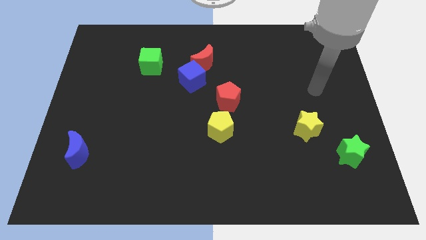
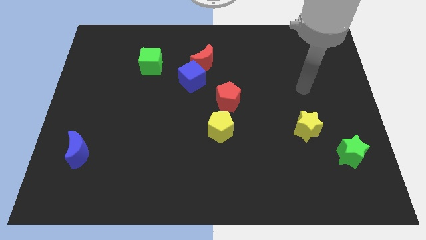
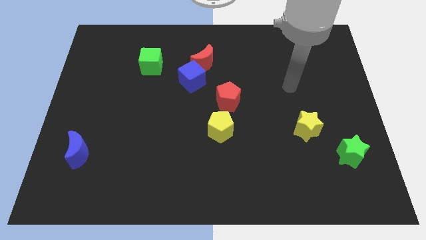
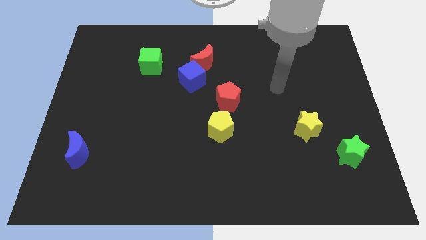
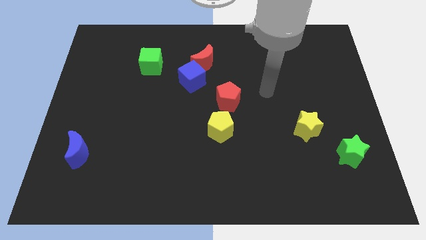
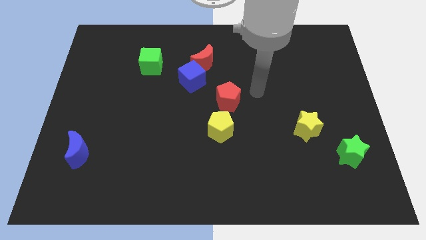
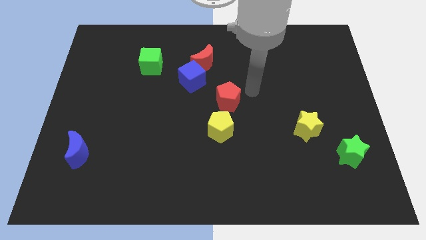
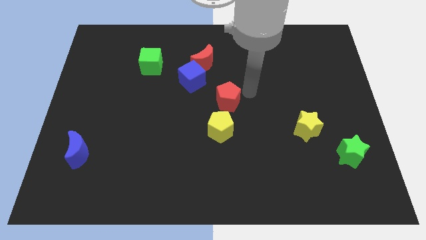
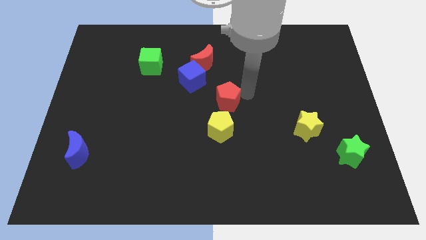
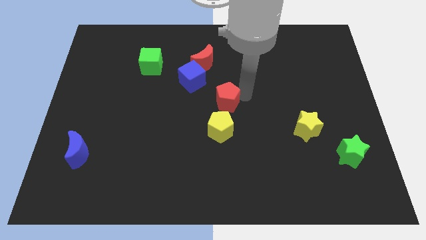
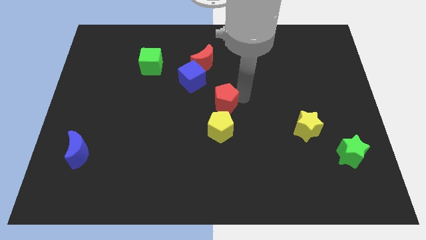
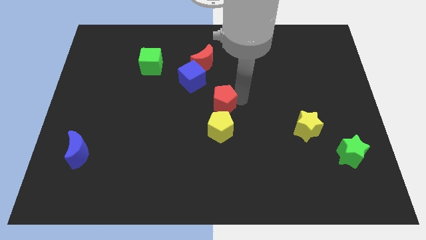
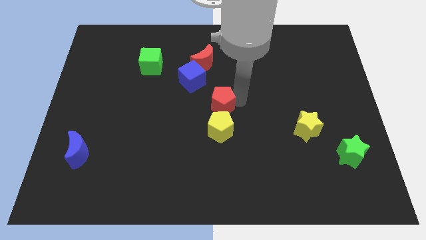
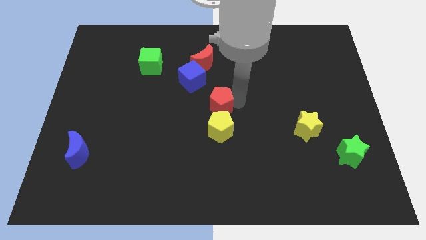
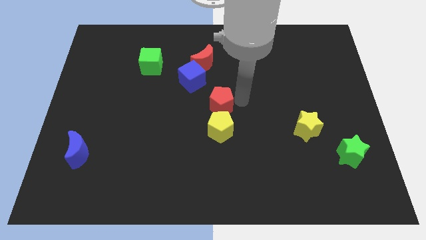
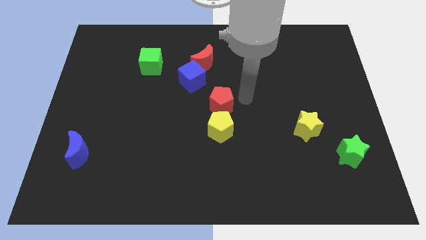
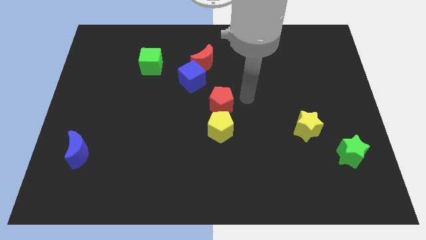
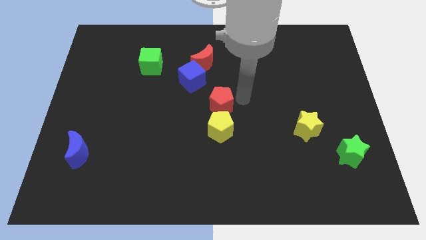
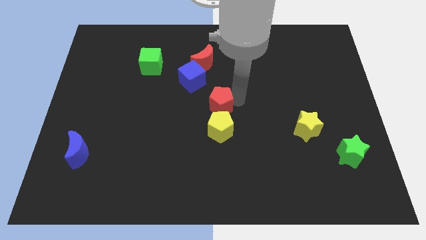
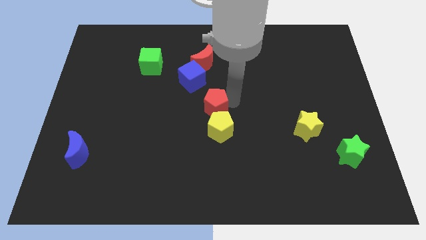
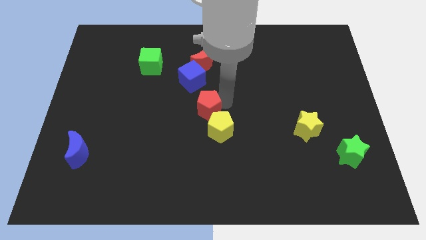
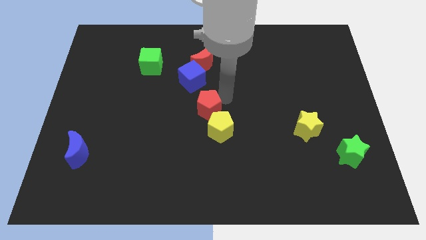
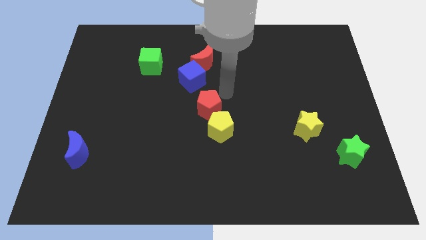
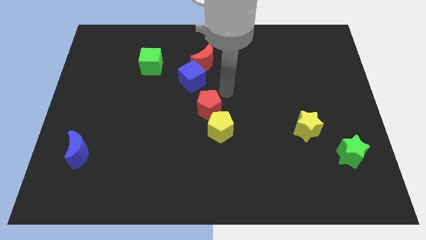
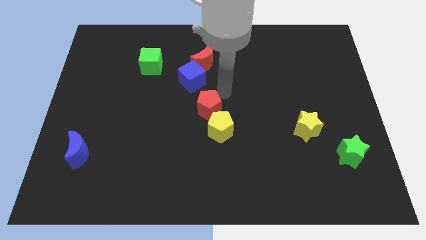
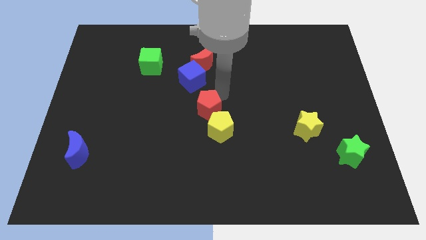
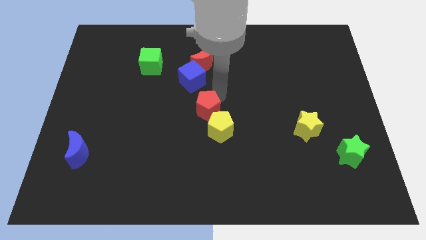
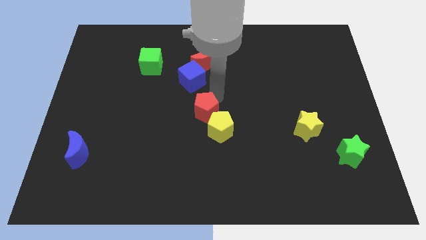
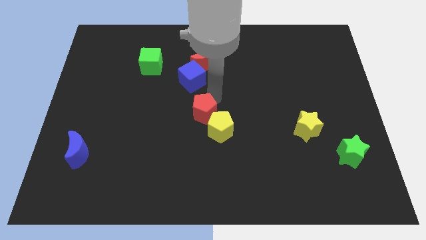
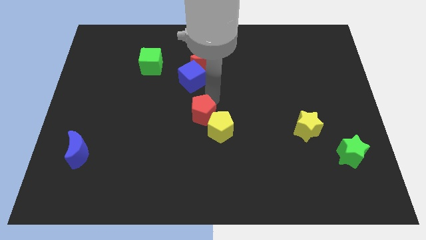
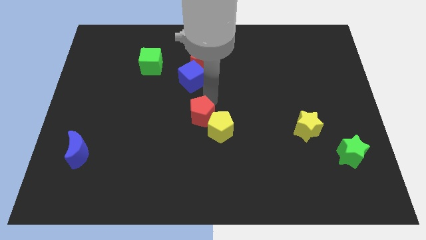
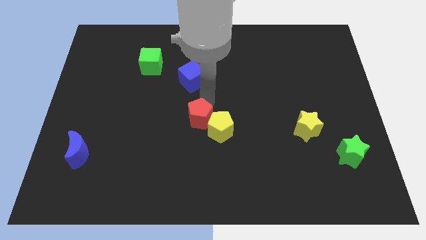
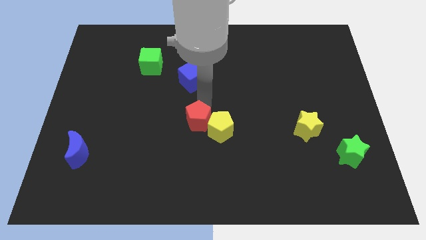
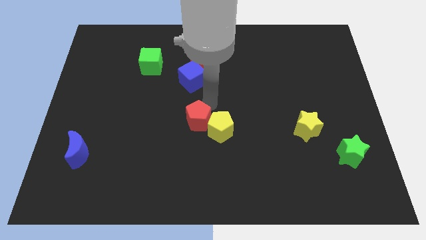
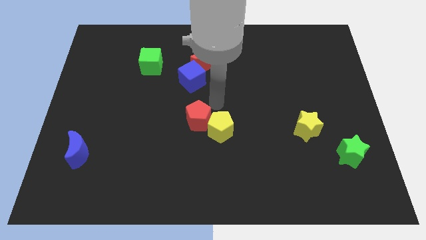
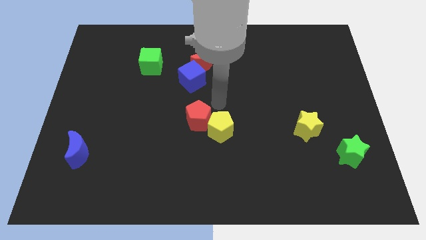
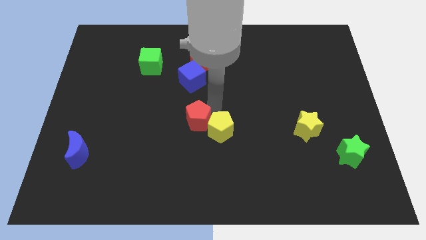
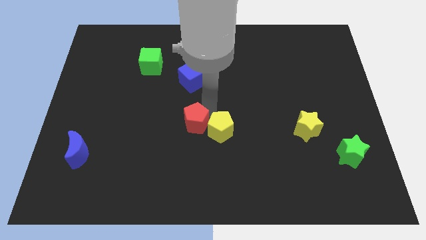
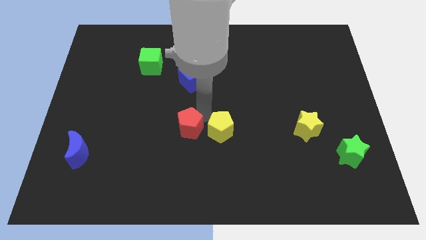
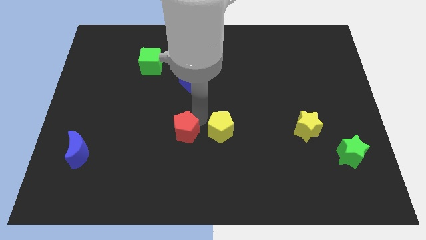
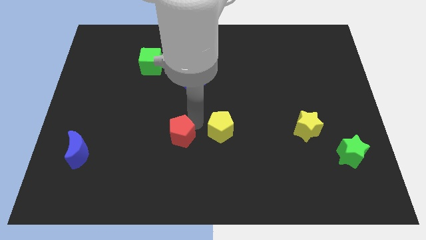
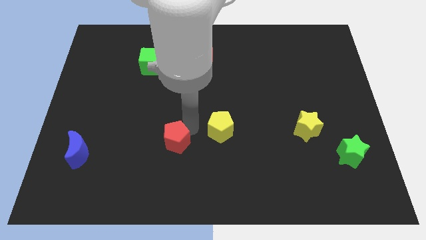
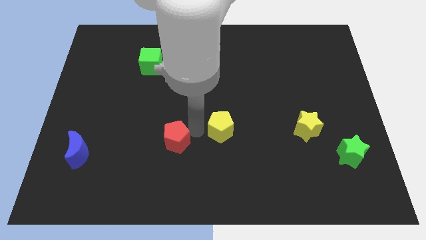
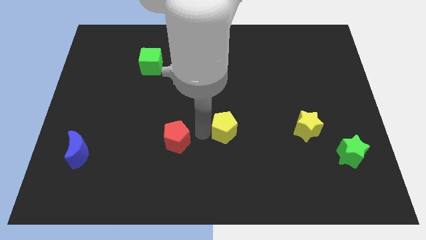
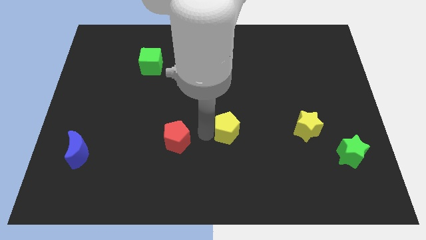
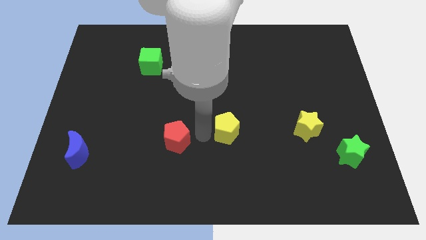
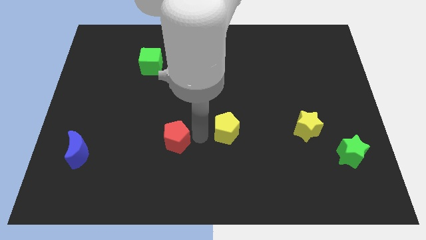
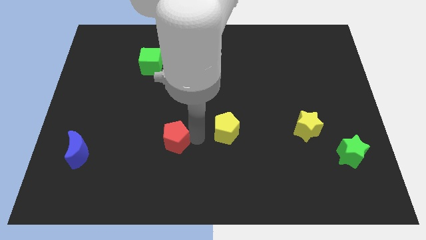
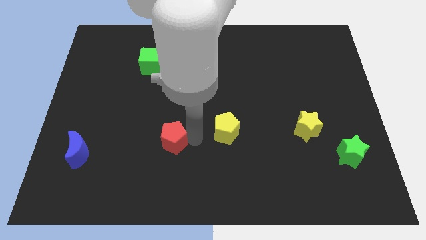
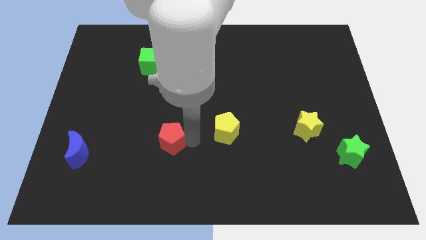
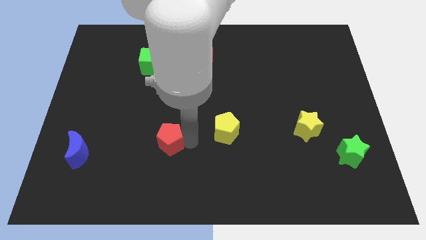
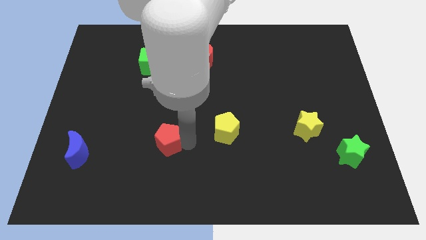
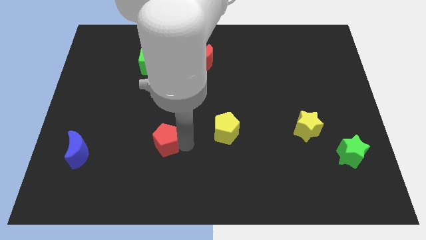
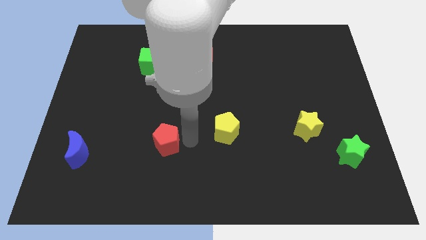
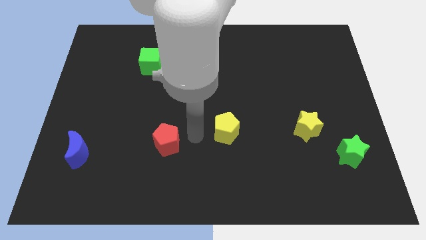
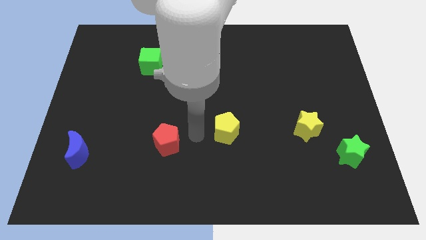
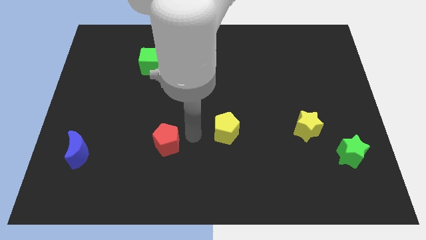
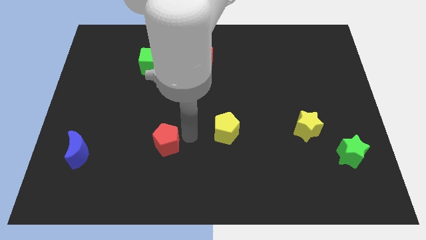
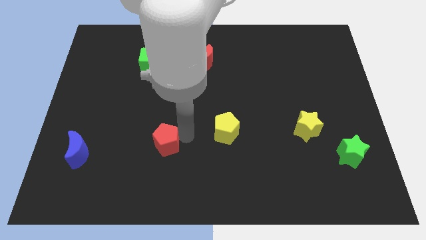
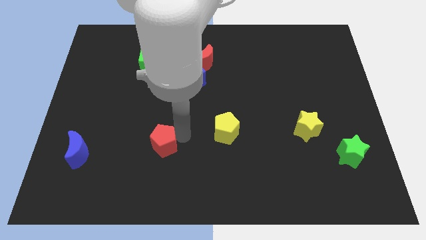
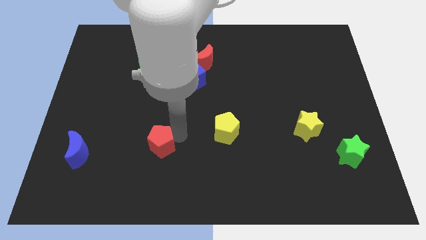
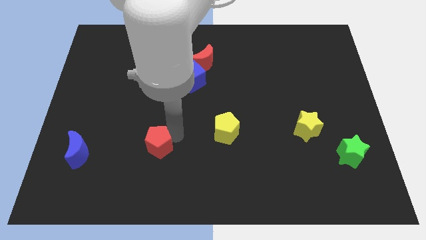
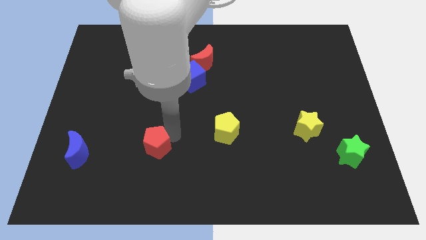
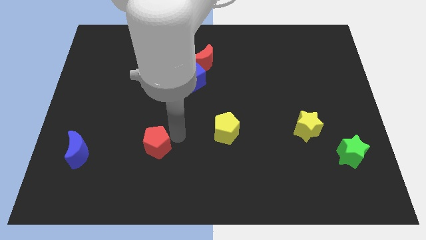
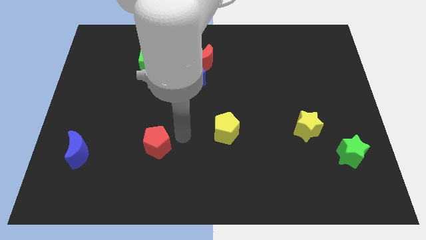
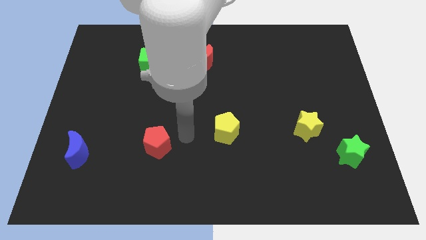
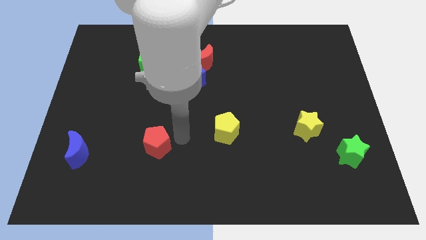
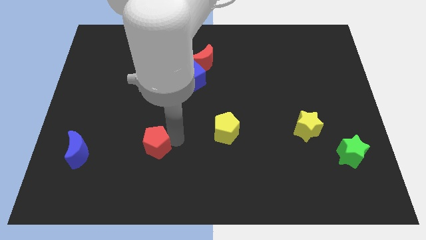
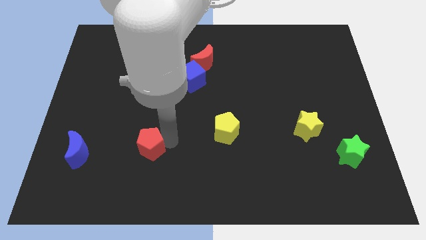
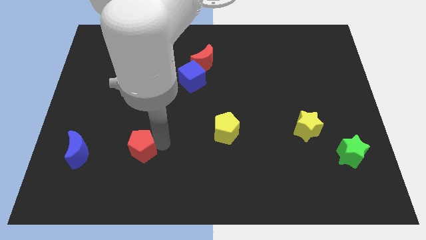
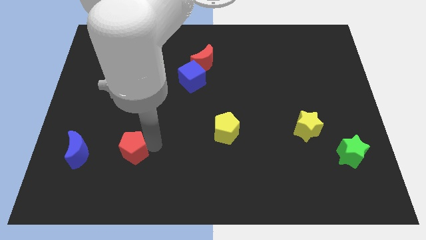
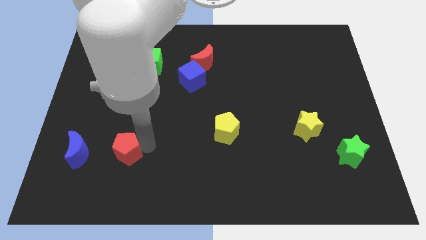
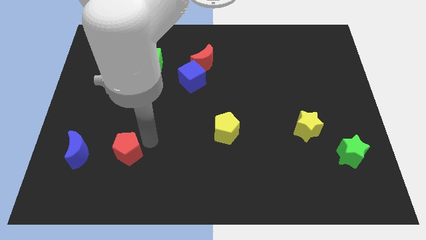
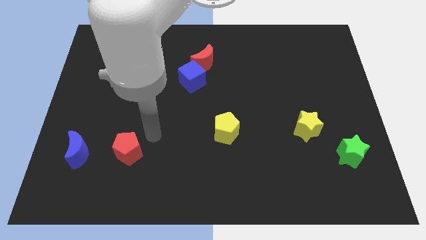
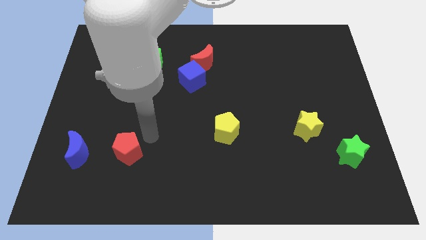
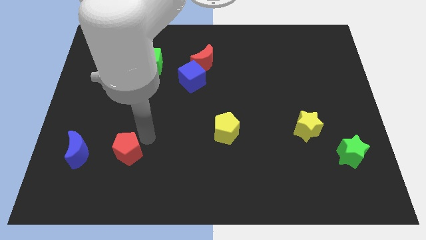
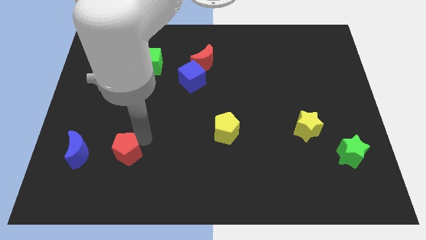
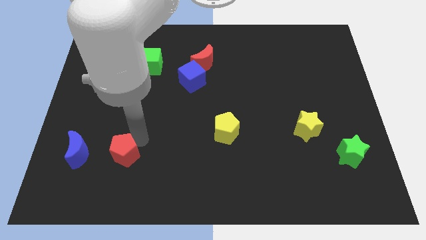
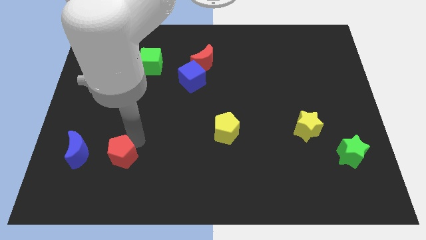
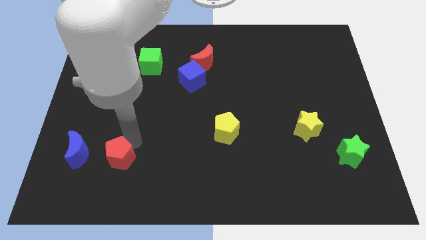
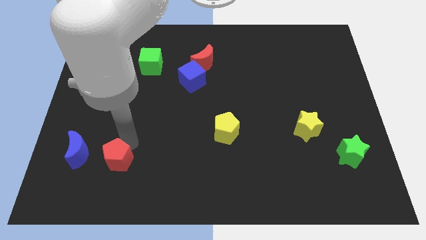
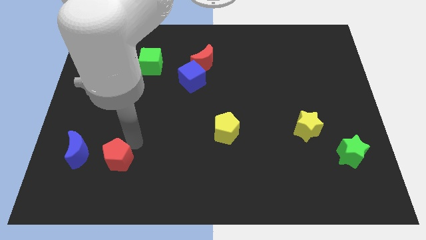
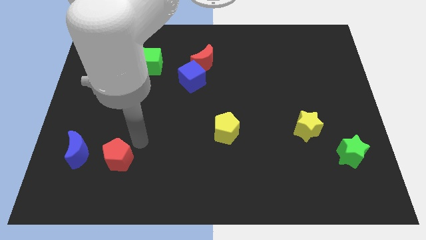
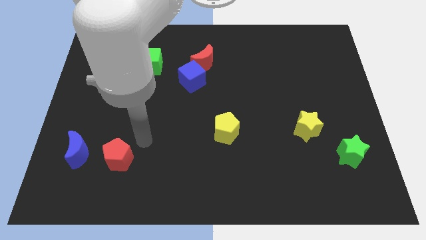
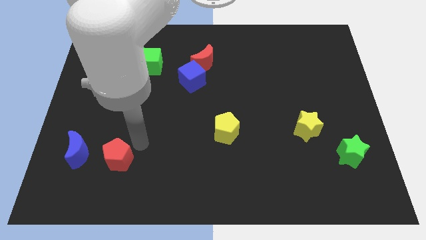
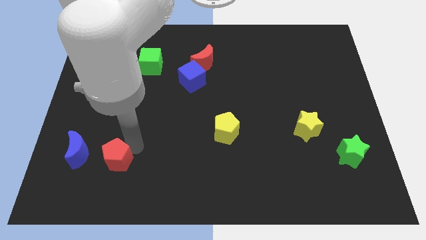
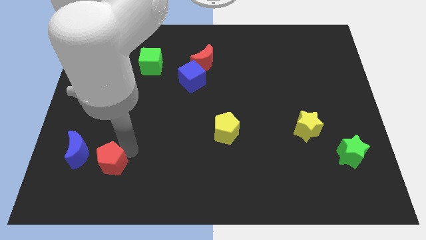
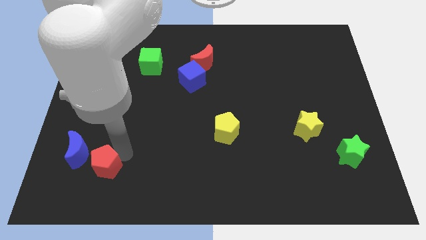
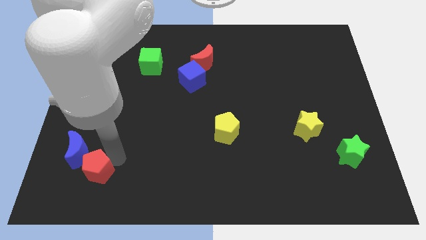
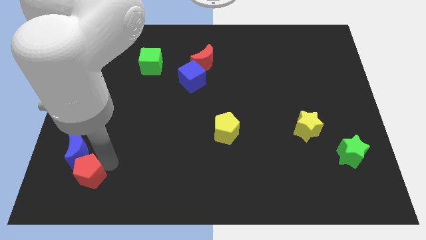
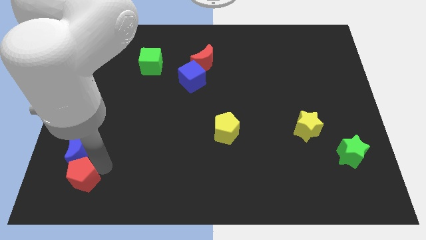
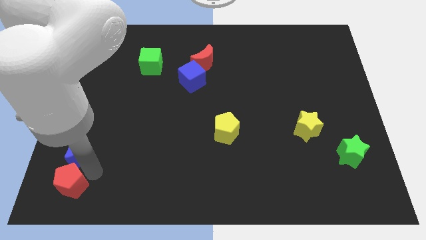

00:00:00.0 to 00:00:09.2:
push the red pentagon to the lower left corner
